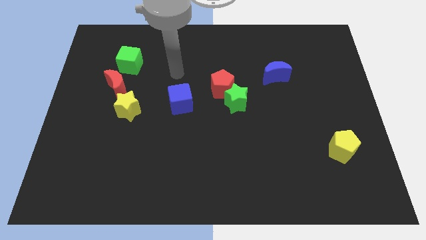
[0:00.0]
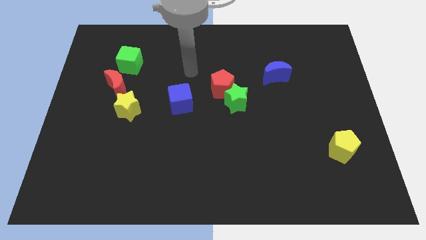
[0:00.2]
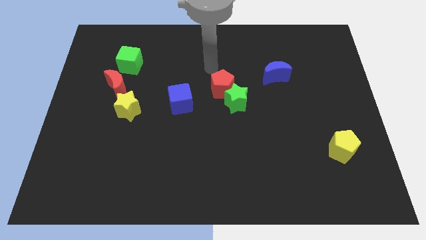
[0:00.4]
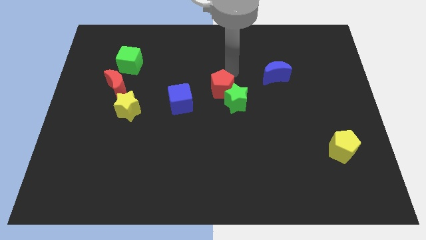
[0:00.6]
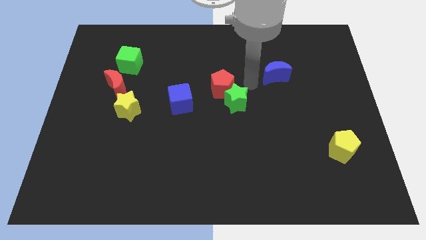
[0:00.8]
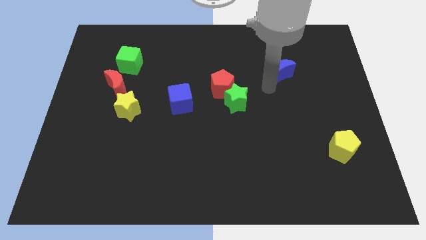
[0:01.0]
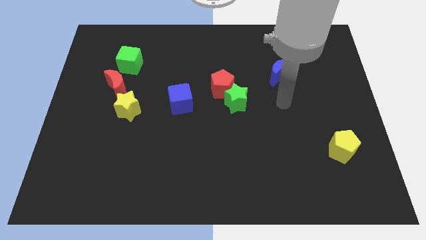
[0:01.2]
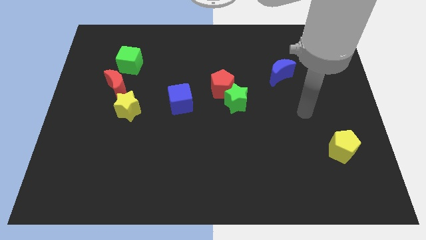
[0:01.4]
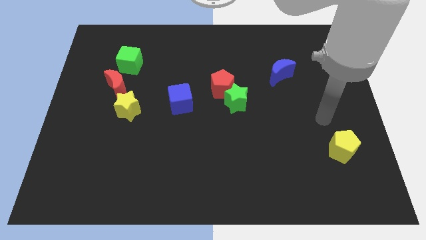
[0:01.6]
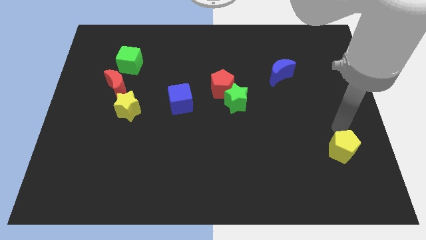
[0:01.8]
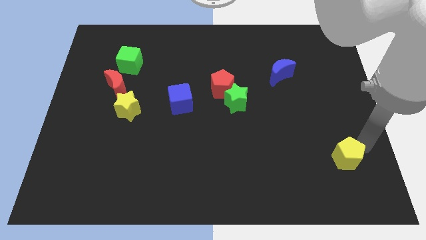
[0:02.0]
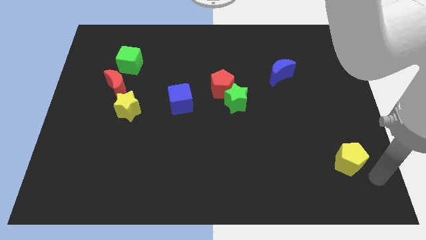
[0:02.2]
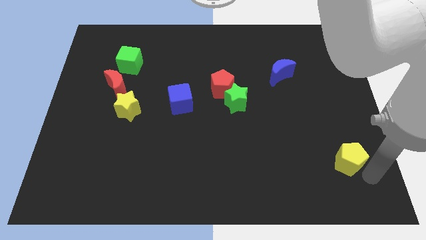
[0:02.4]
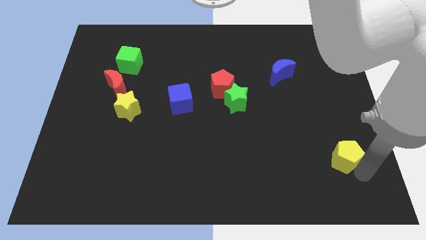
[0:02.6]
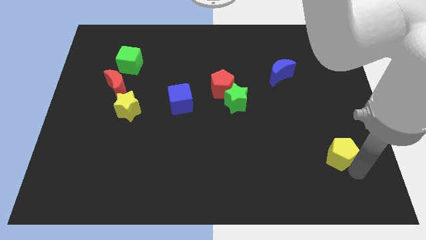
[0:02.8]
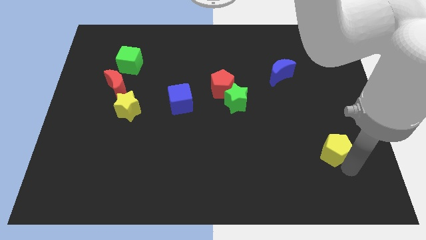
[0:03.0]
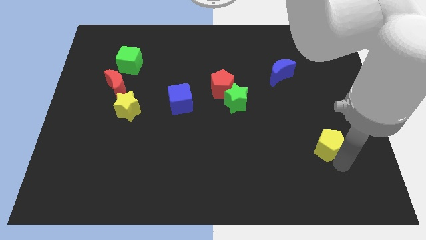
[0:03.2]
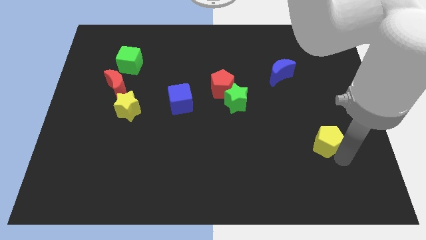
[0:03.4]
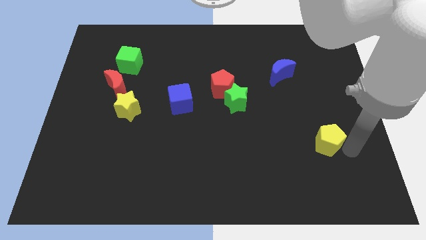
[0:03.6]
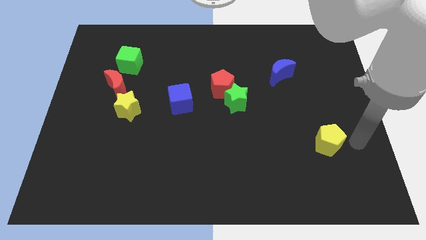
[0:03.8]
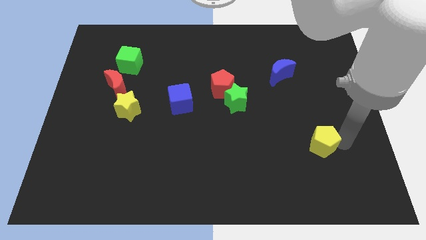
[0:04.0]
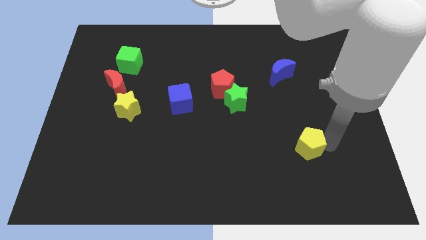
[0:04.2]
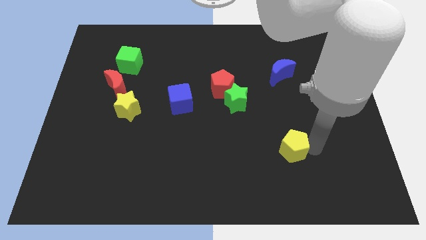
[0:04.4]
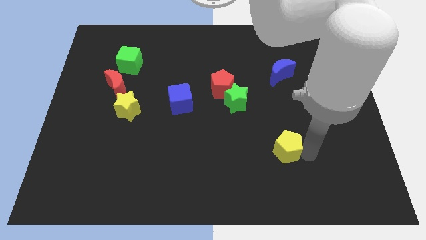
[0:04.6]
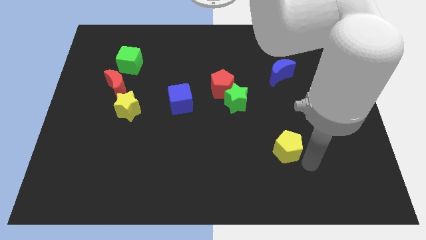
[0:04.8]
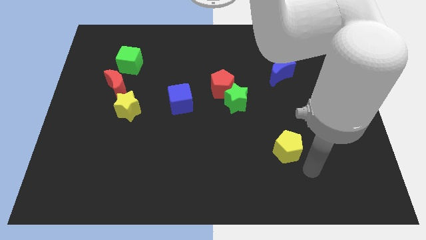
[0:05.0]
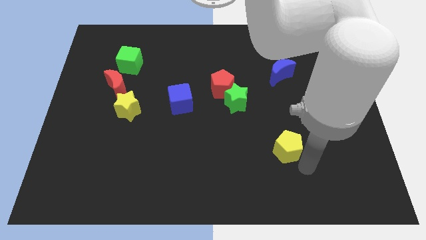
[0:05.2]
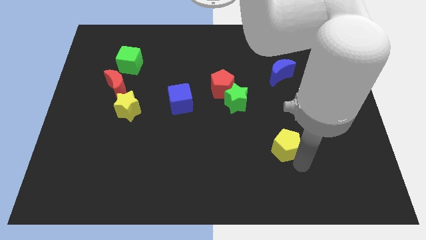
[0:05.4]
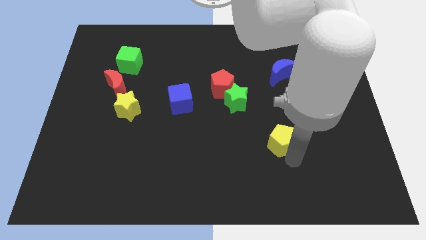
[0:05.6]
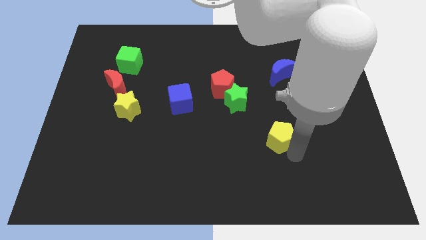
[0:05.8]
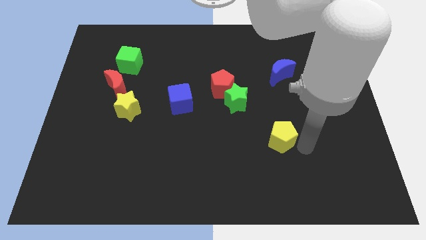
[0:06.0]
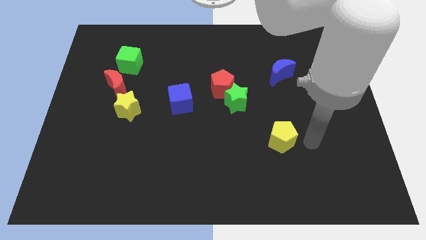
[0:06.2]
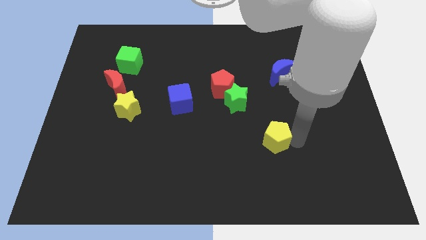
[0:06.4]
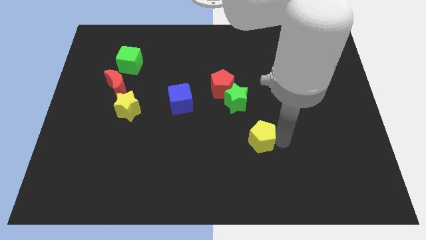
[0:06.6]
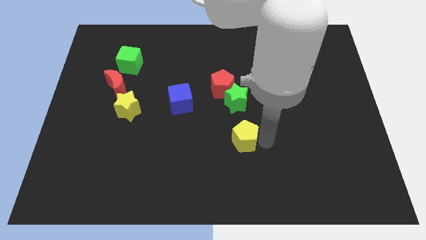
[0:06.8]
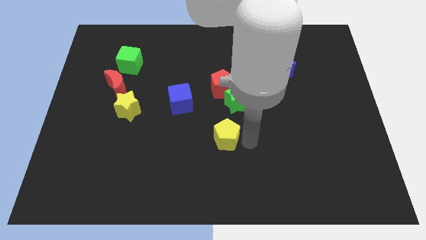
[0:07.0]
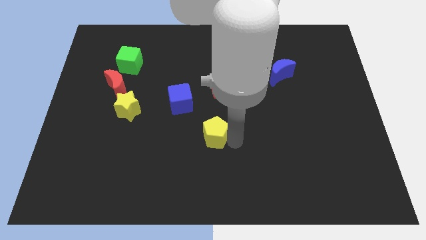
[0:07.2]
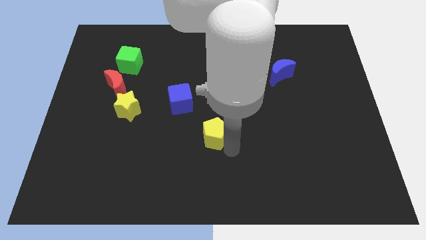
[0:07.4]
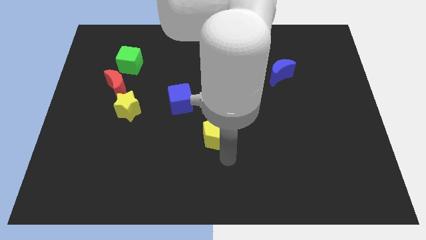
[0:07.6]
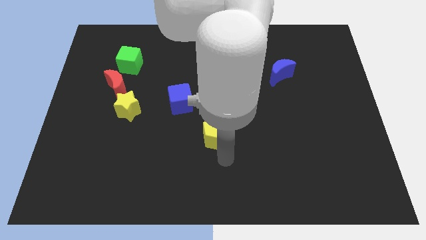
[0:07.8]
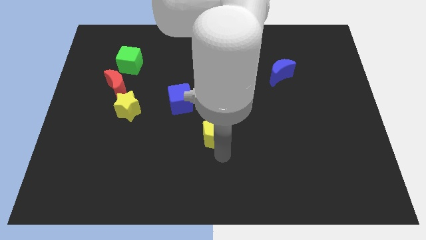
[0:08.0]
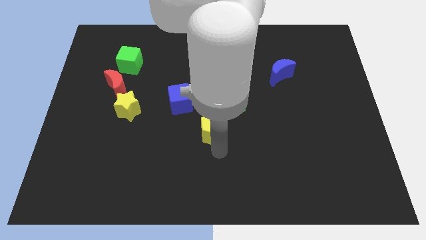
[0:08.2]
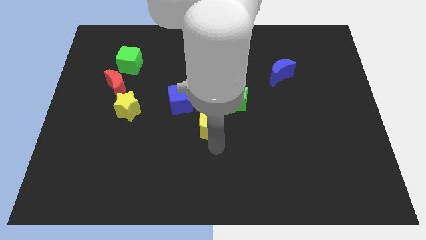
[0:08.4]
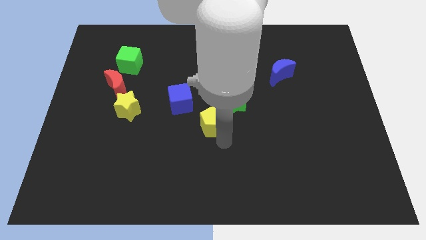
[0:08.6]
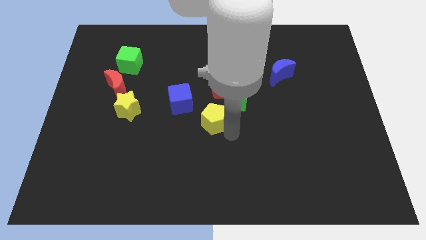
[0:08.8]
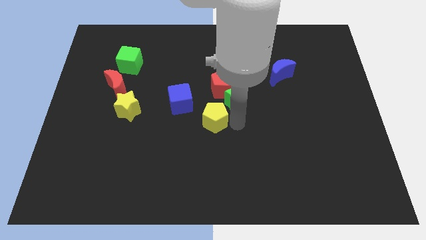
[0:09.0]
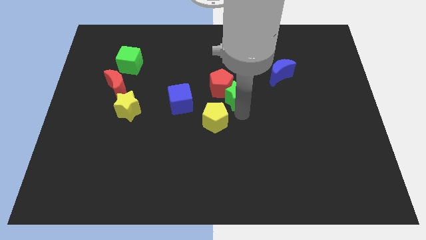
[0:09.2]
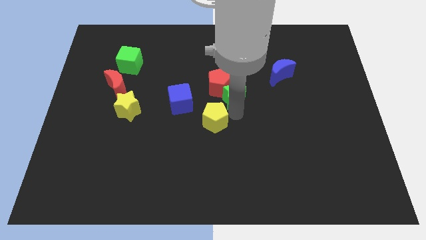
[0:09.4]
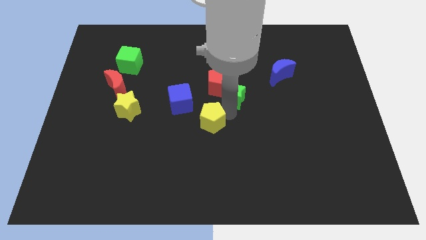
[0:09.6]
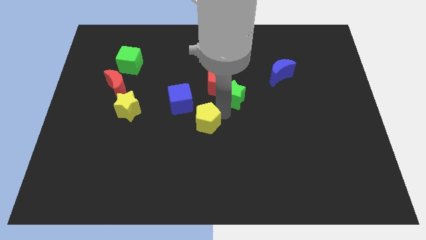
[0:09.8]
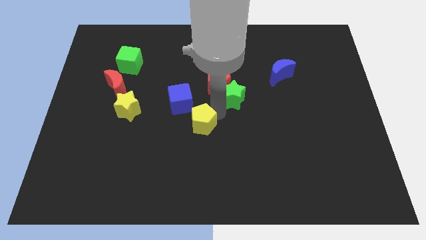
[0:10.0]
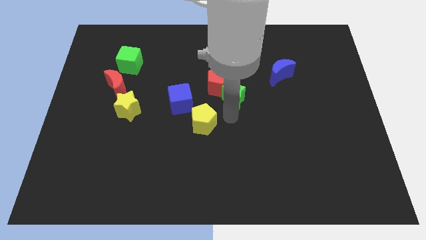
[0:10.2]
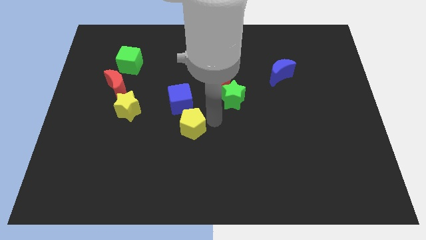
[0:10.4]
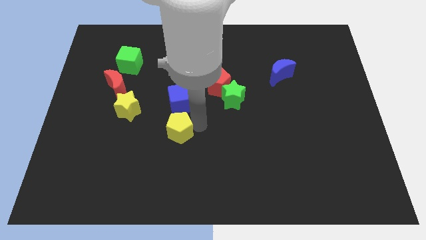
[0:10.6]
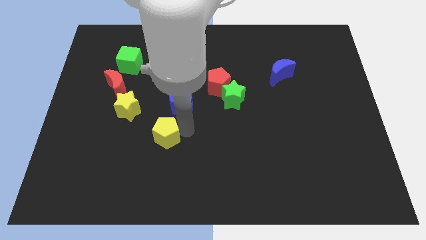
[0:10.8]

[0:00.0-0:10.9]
slide the yellow pentagon to the bottom right side of the yellow star

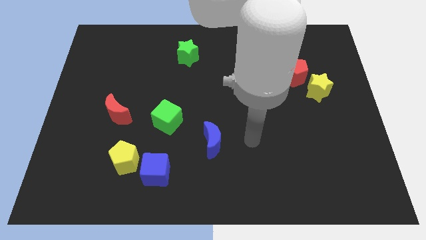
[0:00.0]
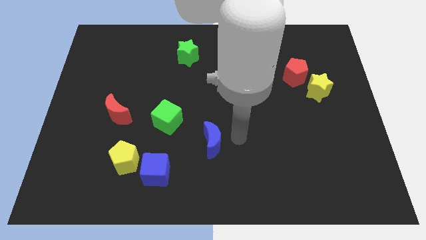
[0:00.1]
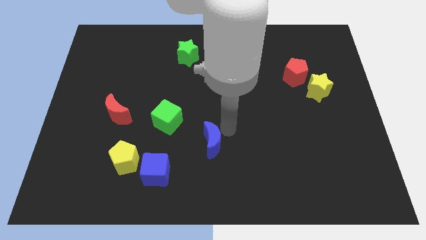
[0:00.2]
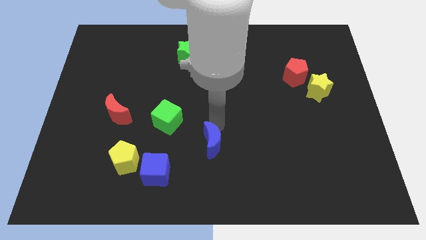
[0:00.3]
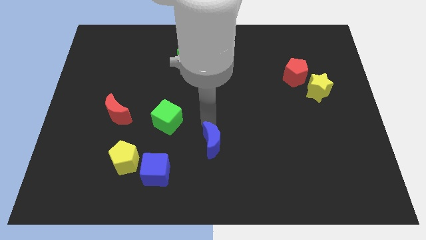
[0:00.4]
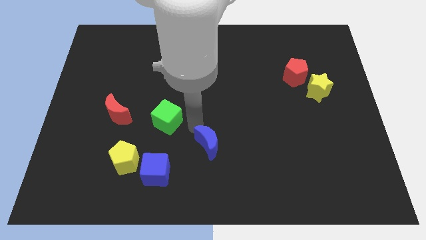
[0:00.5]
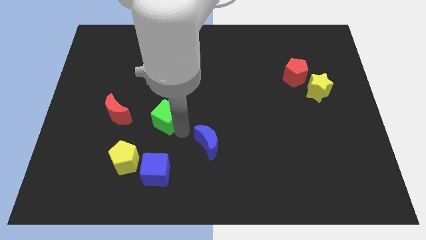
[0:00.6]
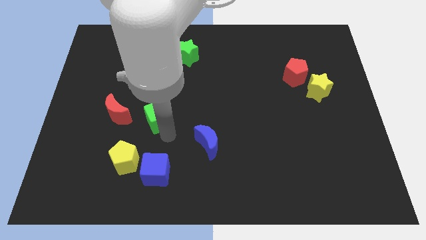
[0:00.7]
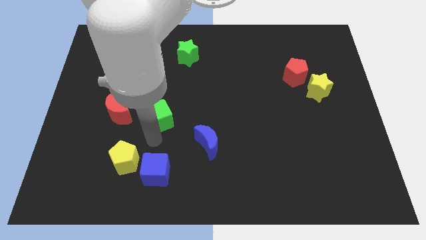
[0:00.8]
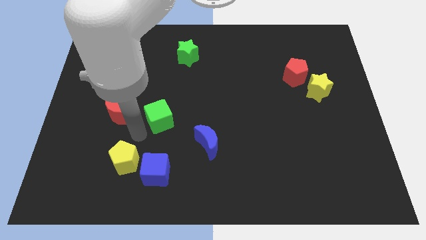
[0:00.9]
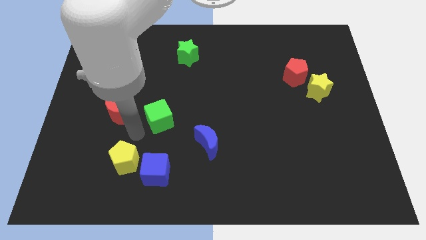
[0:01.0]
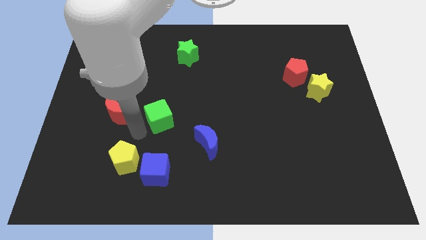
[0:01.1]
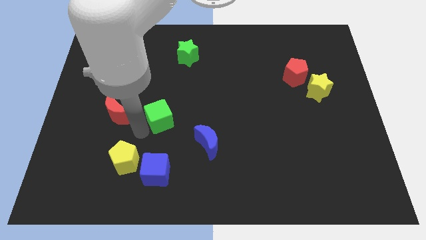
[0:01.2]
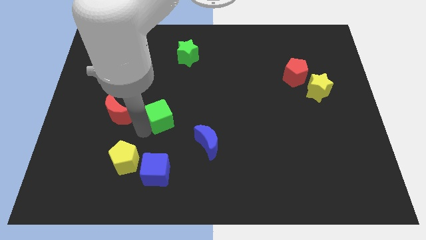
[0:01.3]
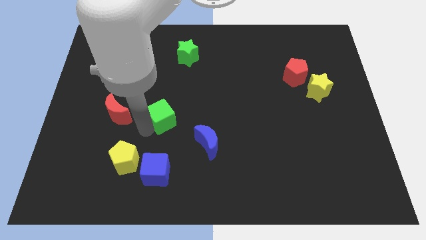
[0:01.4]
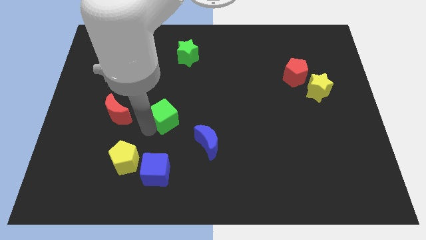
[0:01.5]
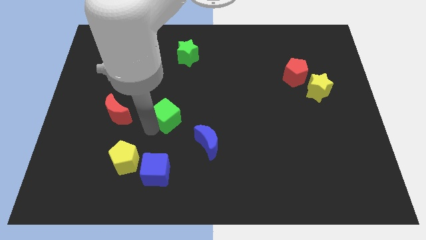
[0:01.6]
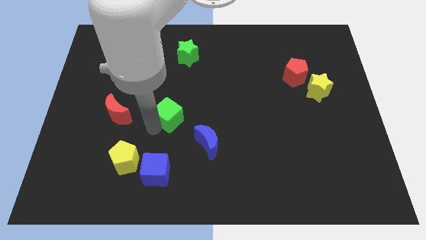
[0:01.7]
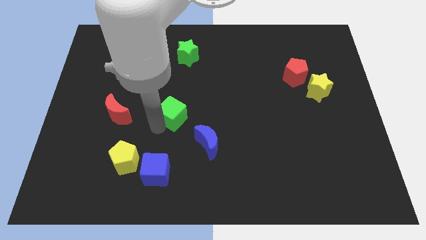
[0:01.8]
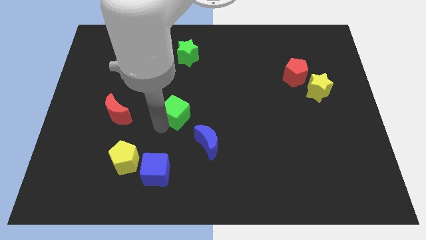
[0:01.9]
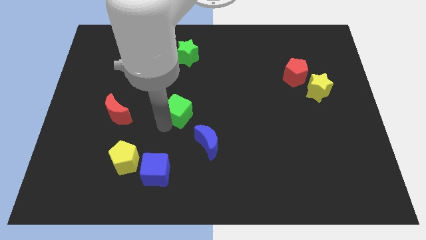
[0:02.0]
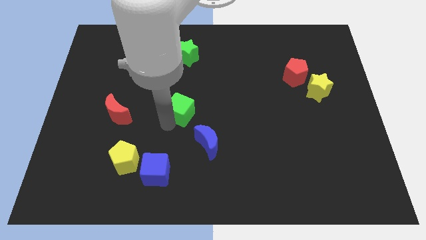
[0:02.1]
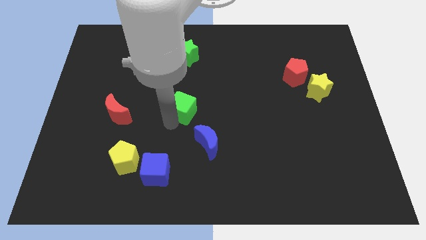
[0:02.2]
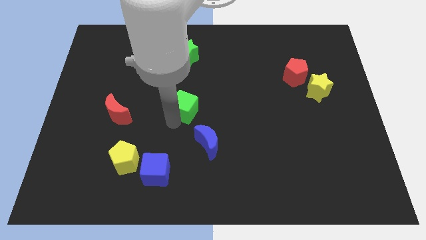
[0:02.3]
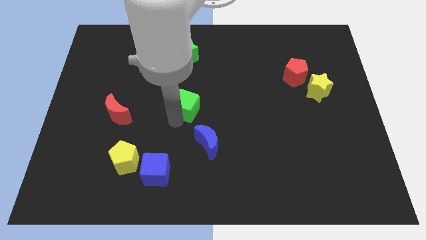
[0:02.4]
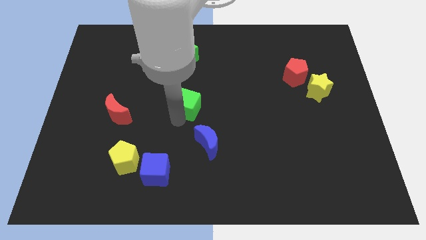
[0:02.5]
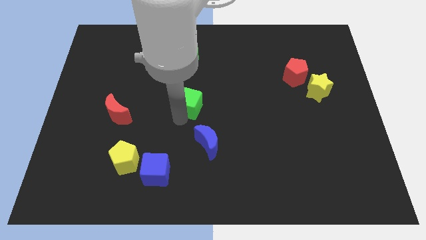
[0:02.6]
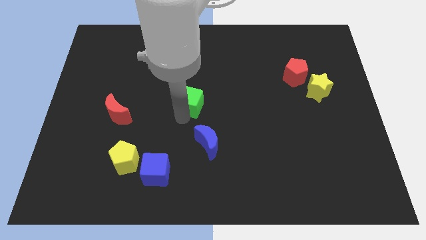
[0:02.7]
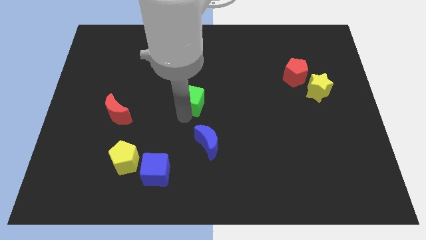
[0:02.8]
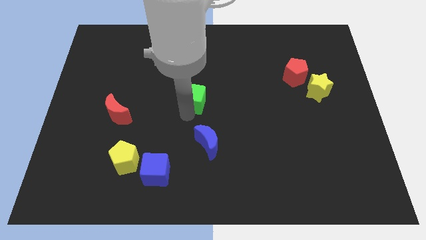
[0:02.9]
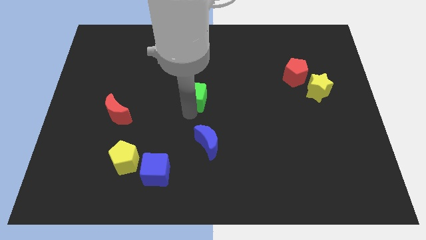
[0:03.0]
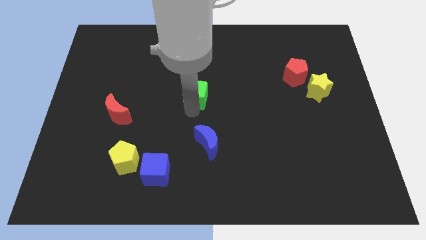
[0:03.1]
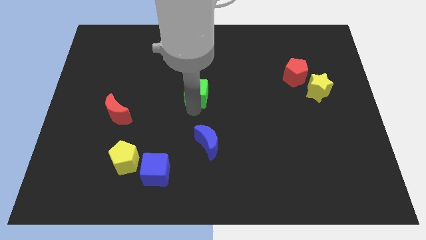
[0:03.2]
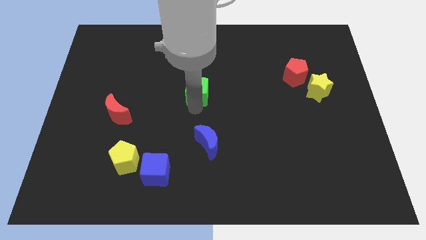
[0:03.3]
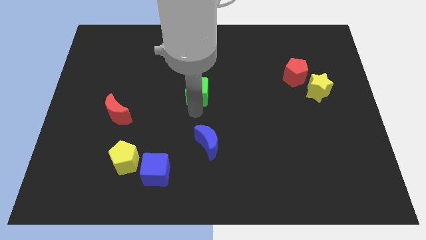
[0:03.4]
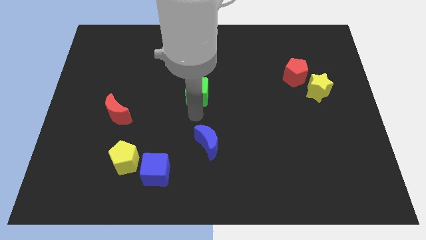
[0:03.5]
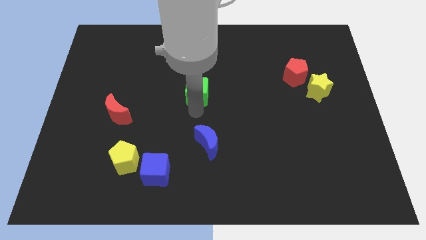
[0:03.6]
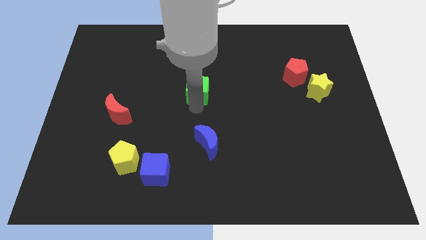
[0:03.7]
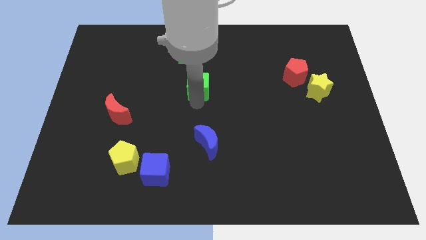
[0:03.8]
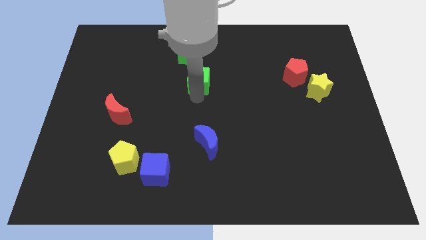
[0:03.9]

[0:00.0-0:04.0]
put the green cube to the bottom right of the green star
